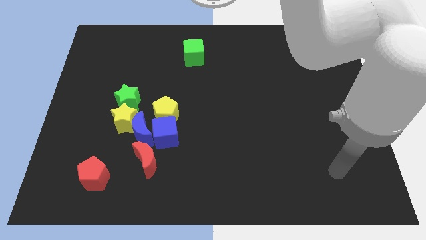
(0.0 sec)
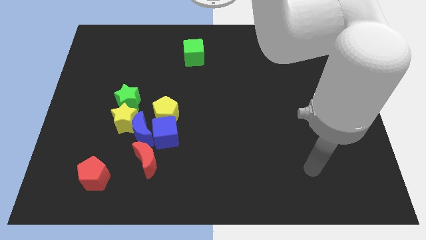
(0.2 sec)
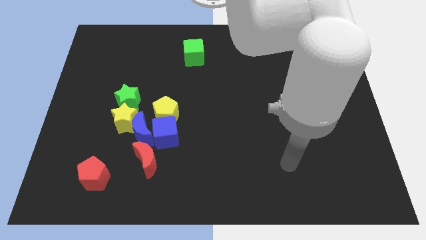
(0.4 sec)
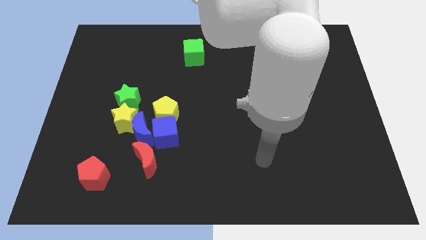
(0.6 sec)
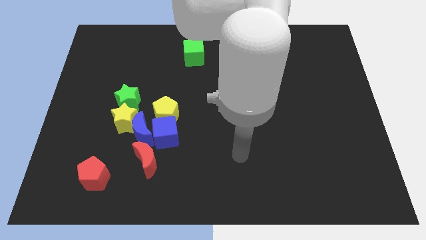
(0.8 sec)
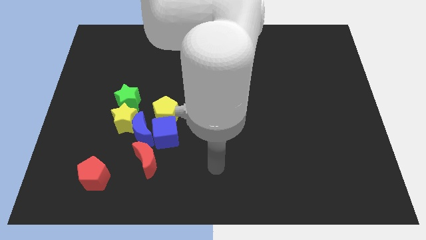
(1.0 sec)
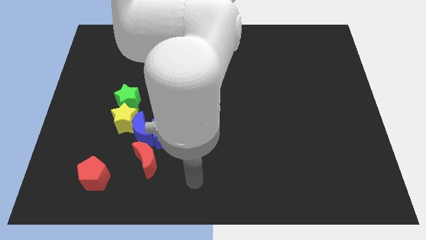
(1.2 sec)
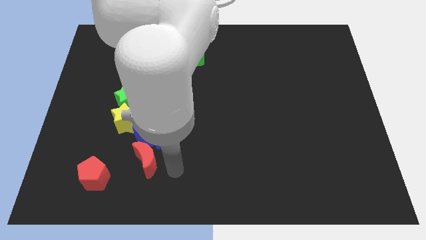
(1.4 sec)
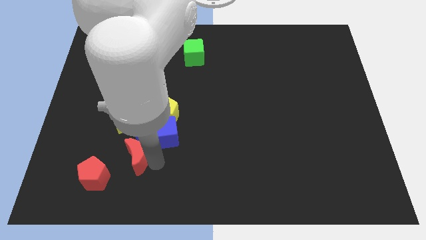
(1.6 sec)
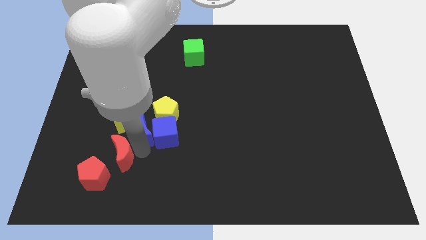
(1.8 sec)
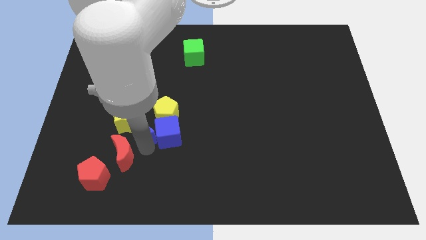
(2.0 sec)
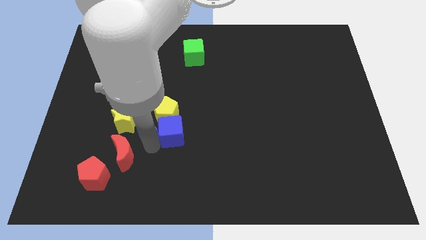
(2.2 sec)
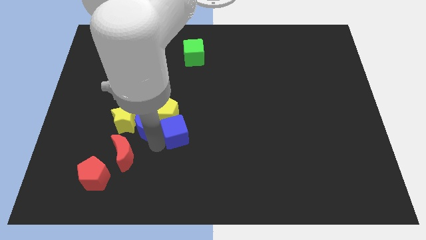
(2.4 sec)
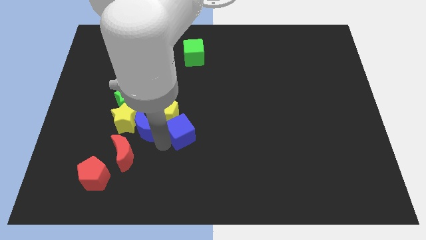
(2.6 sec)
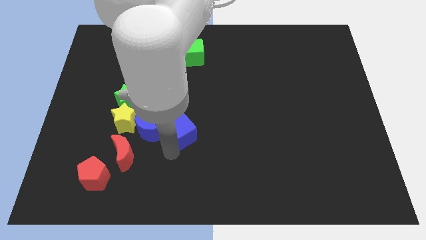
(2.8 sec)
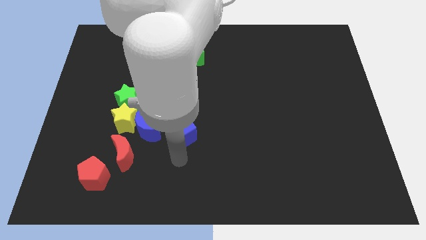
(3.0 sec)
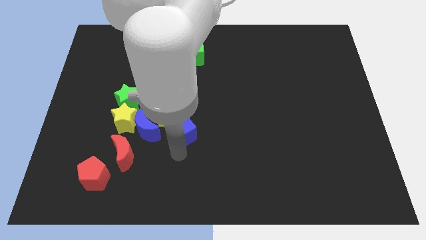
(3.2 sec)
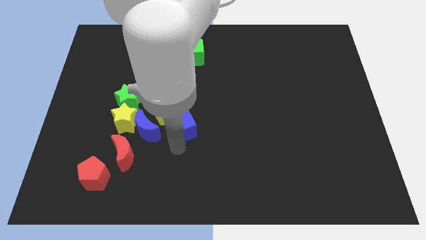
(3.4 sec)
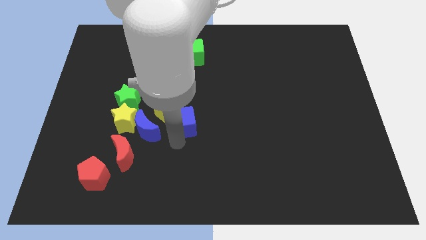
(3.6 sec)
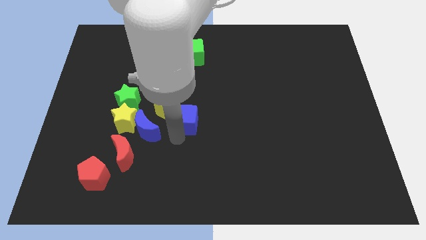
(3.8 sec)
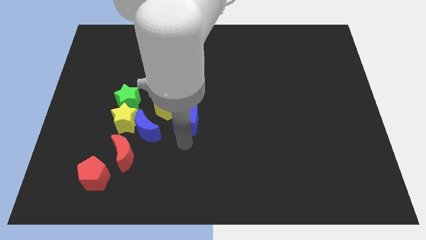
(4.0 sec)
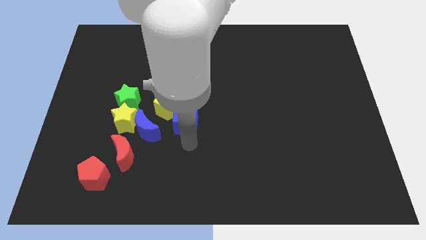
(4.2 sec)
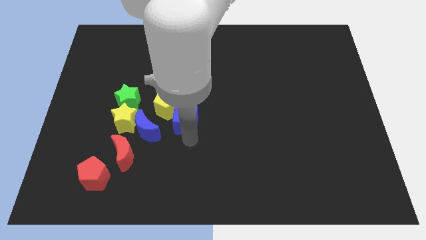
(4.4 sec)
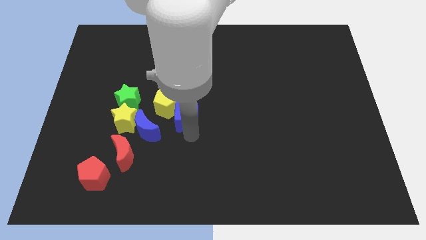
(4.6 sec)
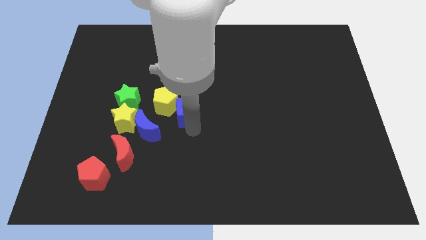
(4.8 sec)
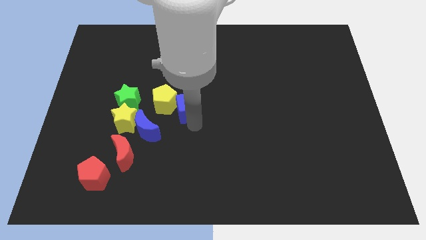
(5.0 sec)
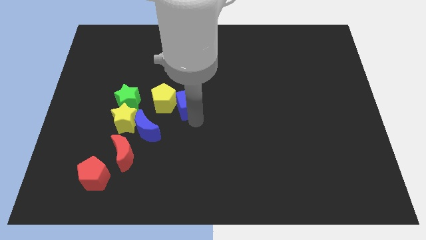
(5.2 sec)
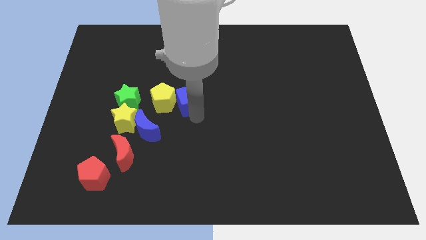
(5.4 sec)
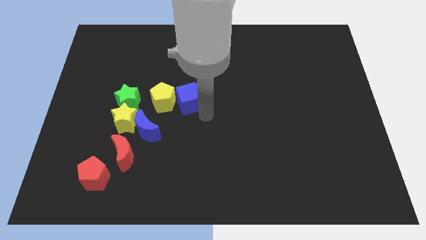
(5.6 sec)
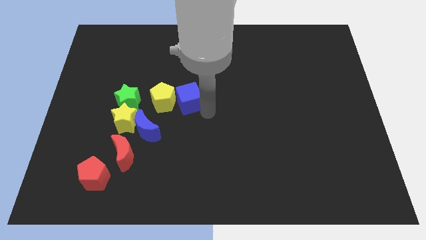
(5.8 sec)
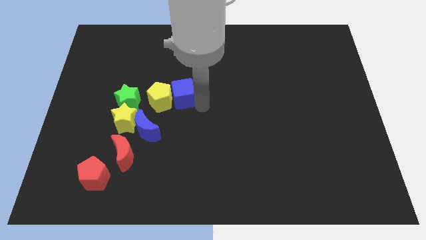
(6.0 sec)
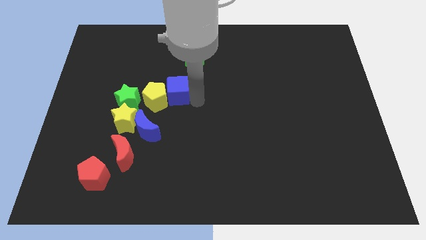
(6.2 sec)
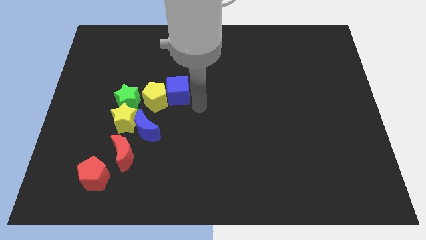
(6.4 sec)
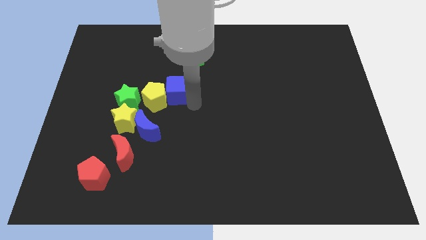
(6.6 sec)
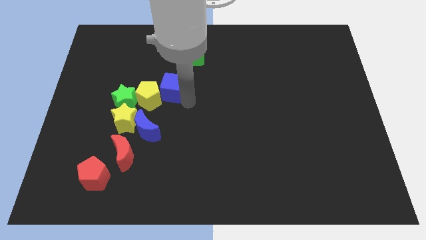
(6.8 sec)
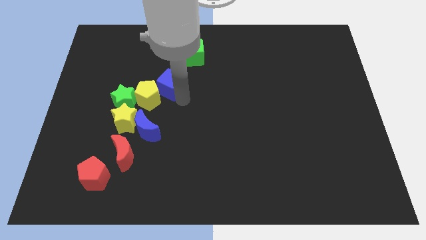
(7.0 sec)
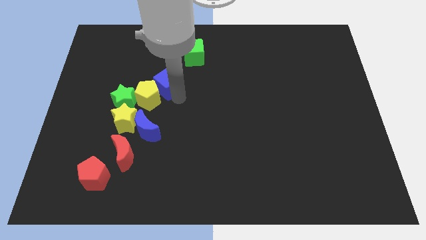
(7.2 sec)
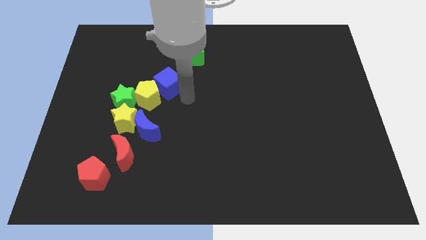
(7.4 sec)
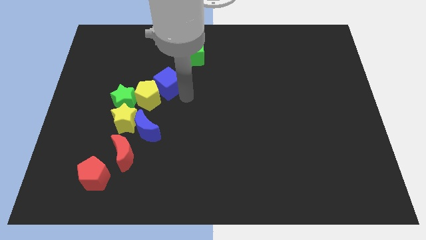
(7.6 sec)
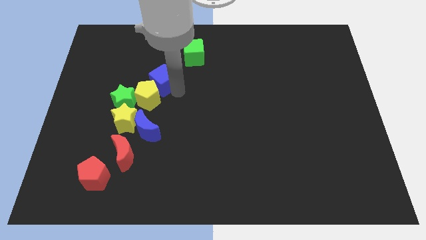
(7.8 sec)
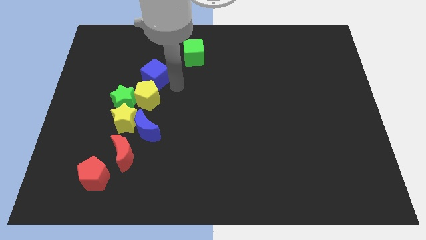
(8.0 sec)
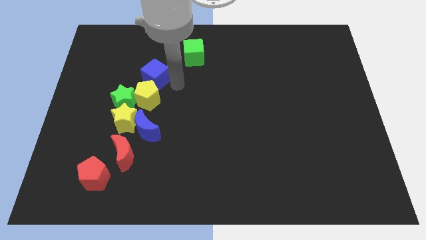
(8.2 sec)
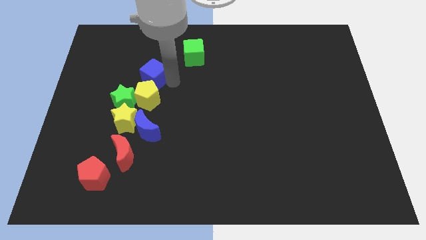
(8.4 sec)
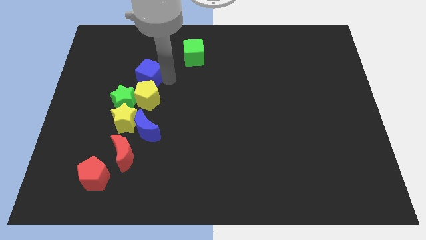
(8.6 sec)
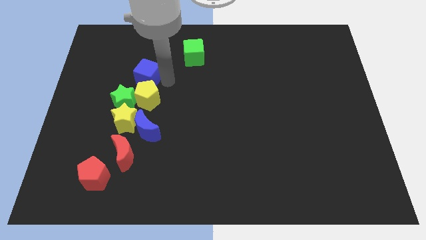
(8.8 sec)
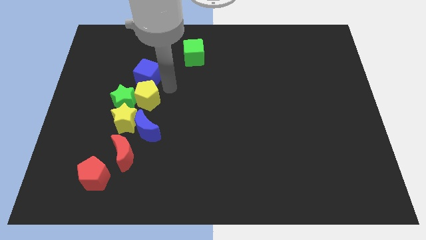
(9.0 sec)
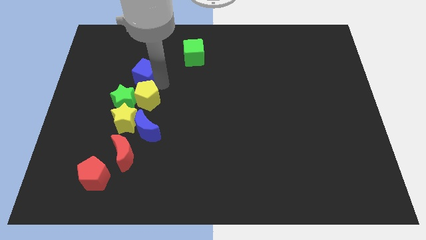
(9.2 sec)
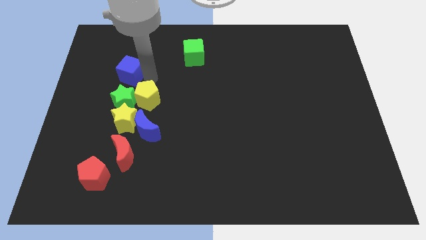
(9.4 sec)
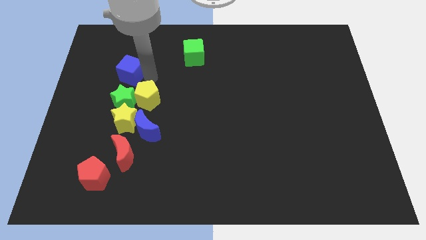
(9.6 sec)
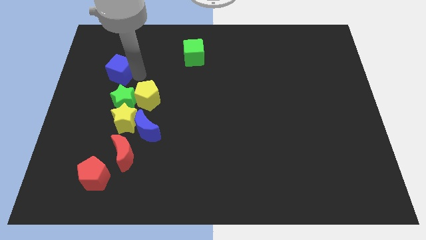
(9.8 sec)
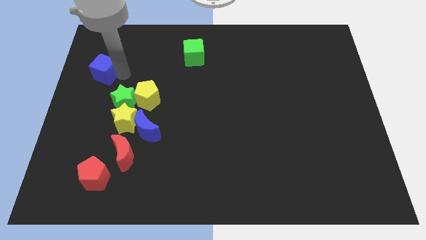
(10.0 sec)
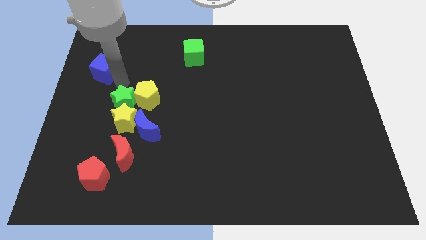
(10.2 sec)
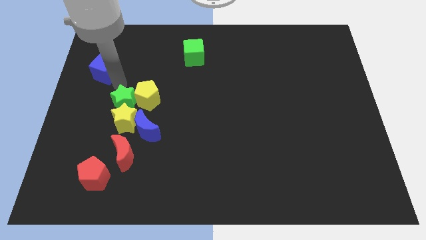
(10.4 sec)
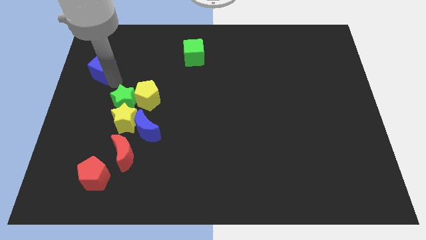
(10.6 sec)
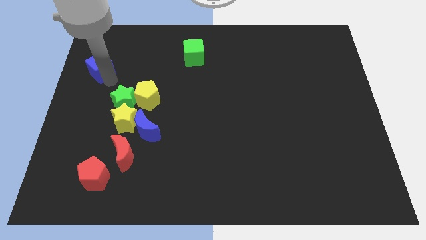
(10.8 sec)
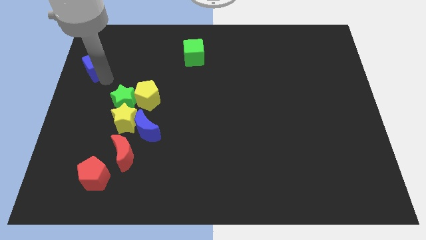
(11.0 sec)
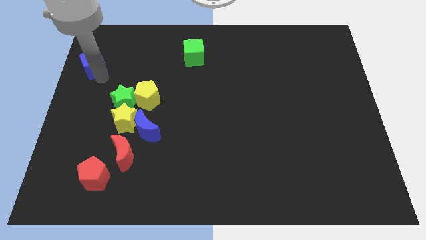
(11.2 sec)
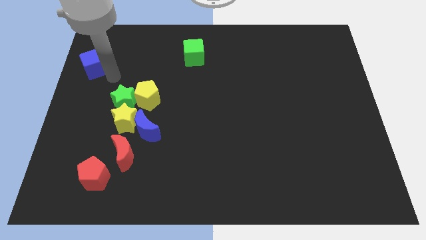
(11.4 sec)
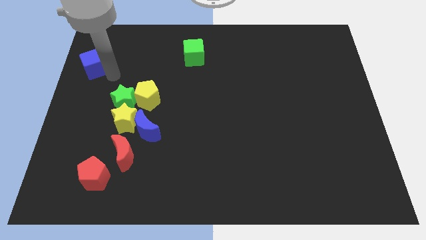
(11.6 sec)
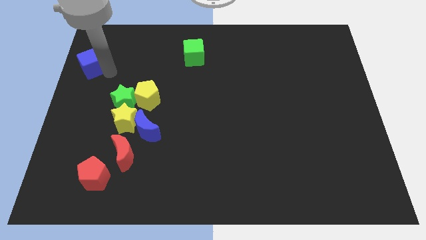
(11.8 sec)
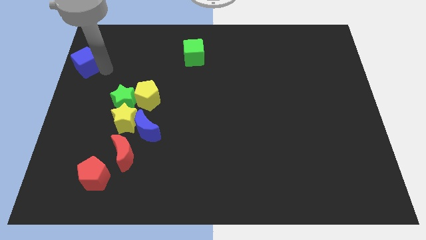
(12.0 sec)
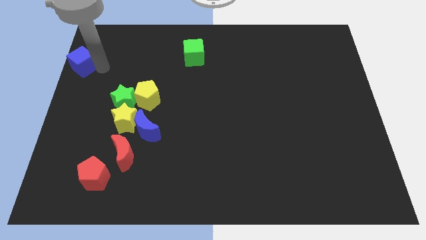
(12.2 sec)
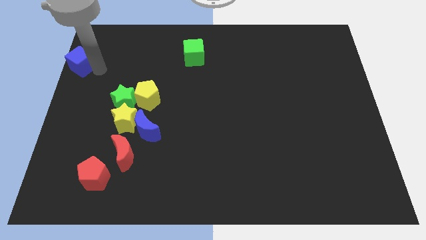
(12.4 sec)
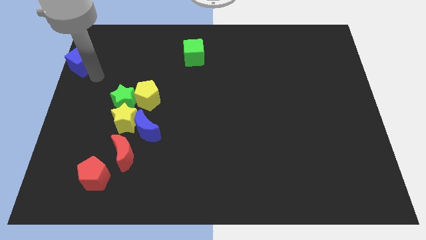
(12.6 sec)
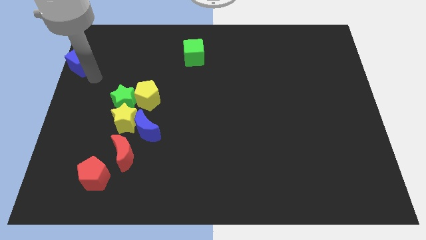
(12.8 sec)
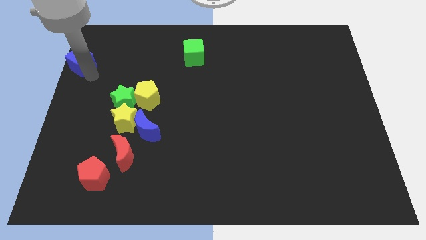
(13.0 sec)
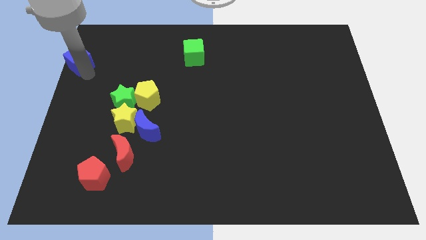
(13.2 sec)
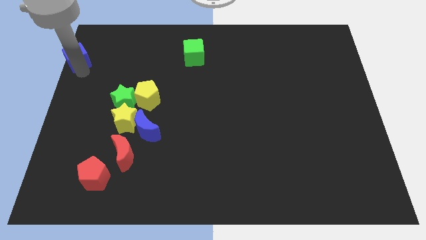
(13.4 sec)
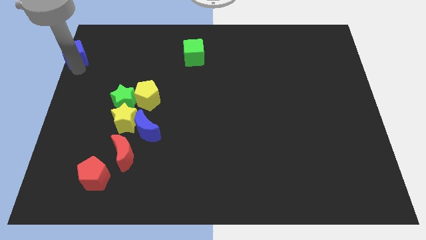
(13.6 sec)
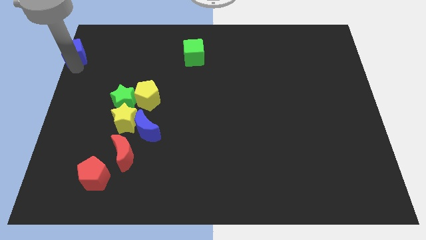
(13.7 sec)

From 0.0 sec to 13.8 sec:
put the blue cube to the top left of the board
